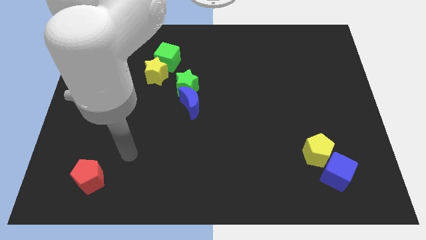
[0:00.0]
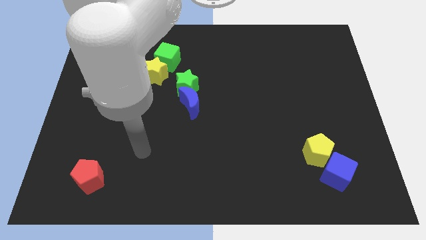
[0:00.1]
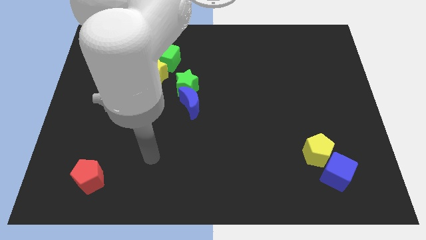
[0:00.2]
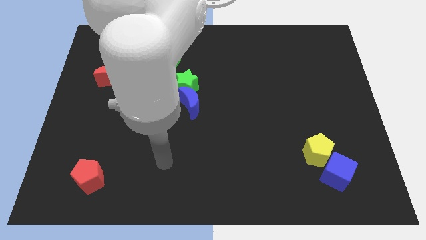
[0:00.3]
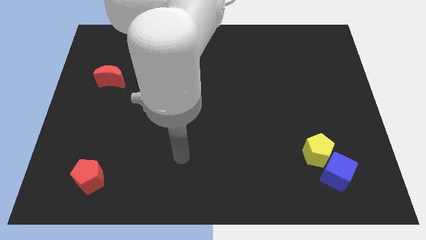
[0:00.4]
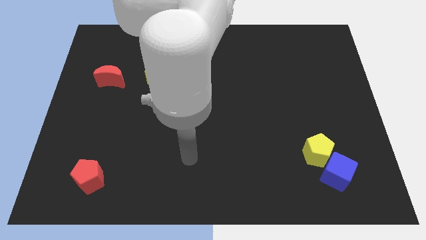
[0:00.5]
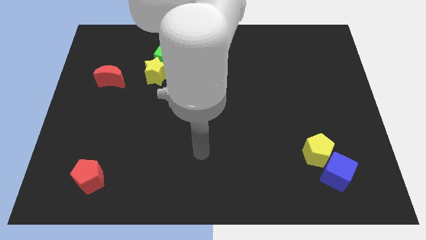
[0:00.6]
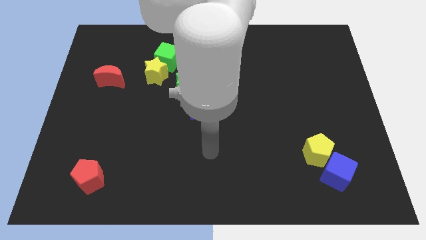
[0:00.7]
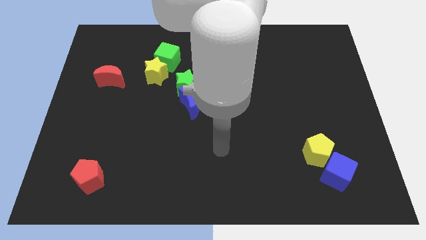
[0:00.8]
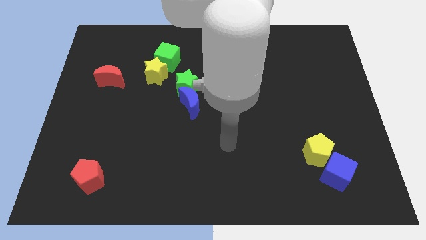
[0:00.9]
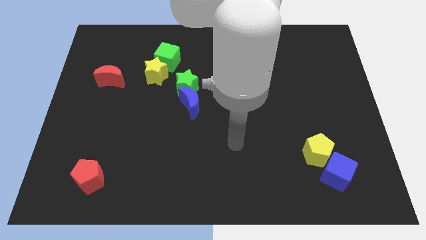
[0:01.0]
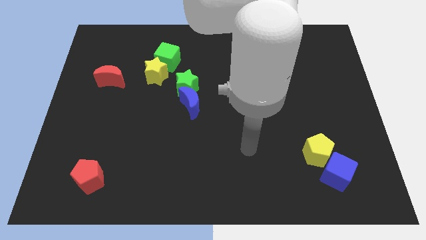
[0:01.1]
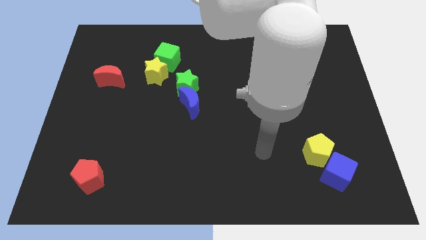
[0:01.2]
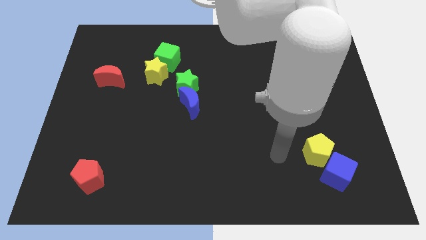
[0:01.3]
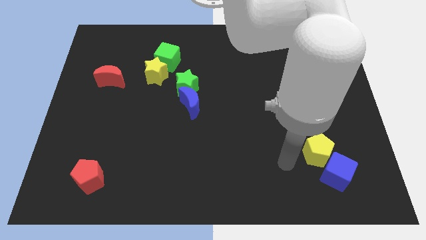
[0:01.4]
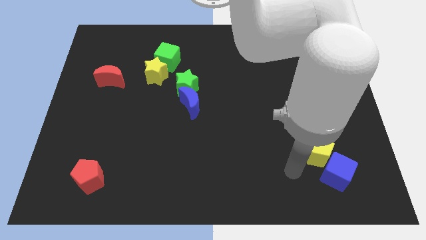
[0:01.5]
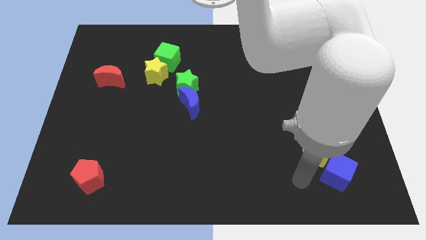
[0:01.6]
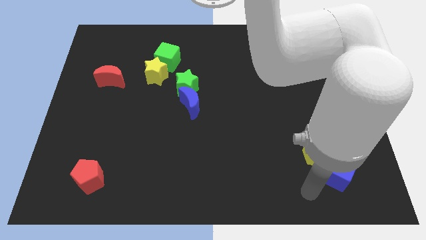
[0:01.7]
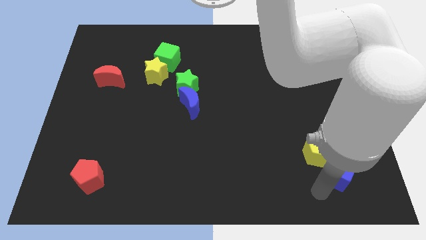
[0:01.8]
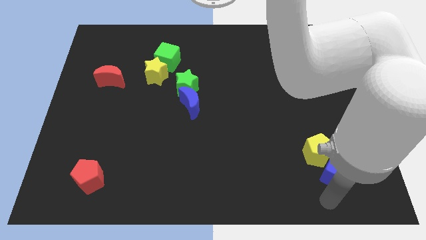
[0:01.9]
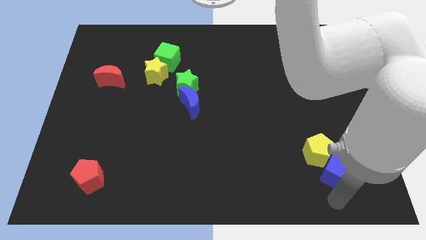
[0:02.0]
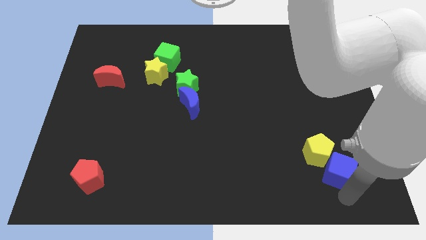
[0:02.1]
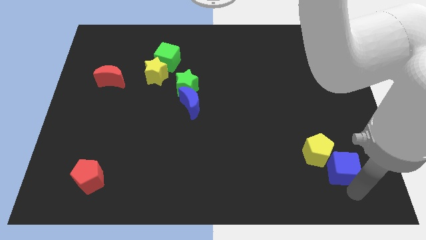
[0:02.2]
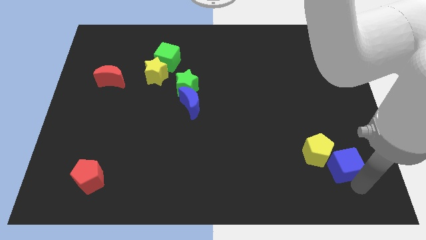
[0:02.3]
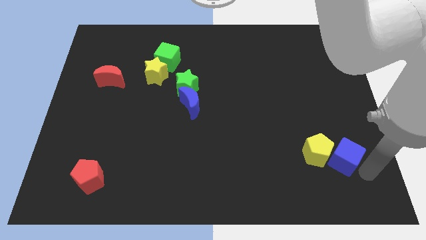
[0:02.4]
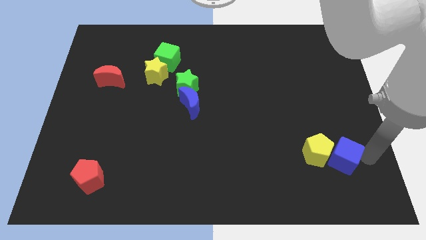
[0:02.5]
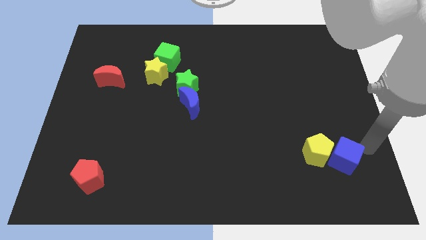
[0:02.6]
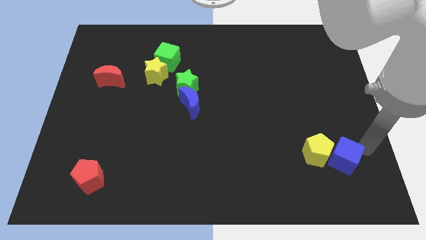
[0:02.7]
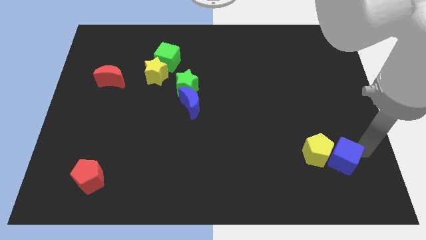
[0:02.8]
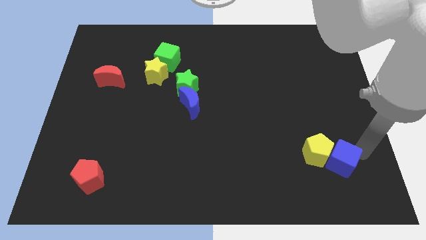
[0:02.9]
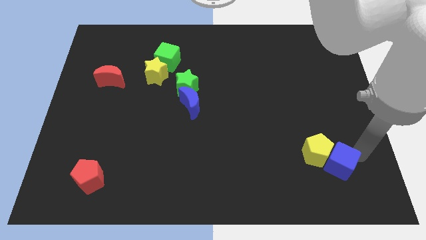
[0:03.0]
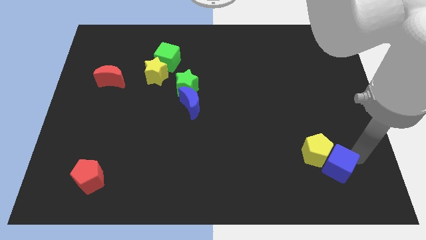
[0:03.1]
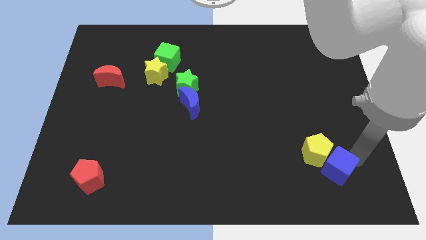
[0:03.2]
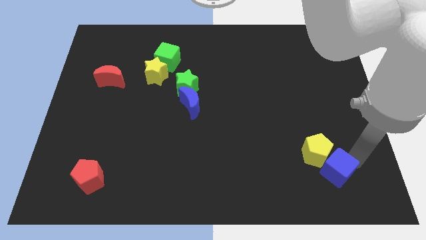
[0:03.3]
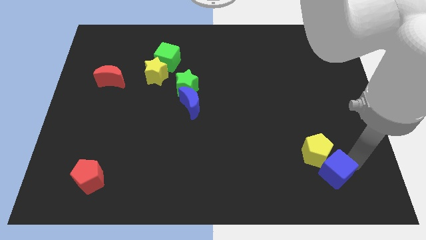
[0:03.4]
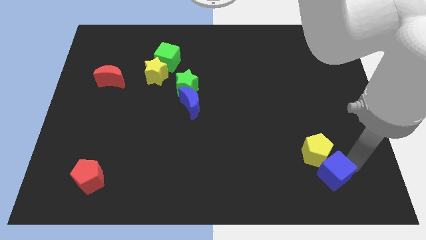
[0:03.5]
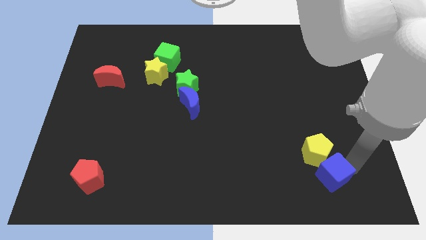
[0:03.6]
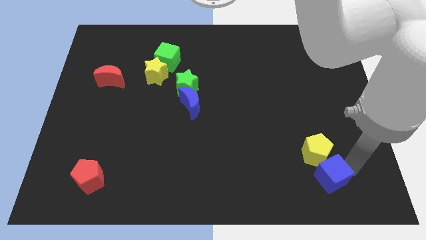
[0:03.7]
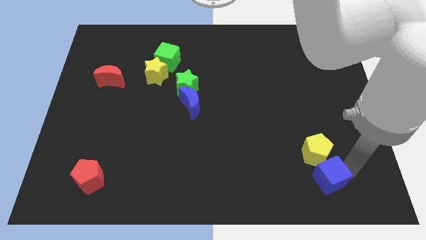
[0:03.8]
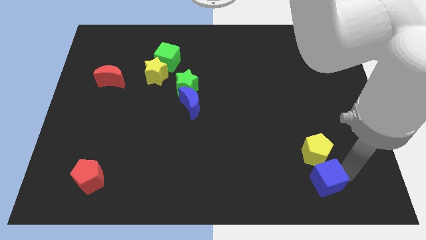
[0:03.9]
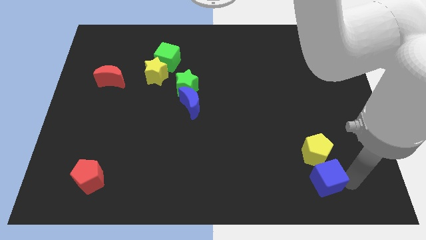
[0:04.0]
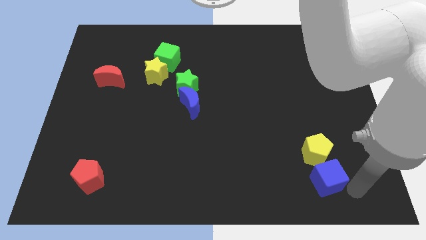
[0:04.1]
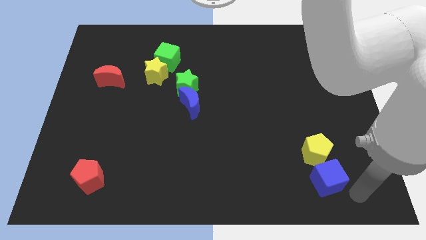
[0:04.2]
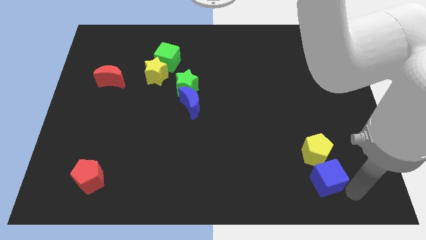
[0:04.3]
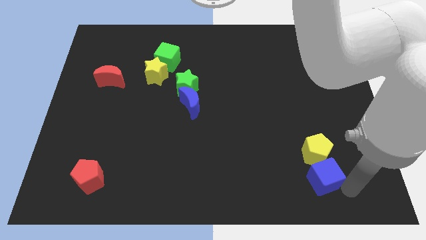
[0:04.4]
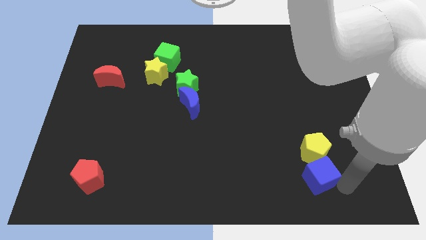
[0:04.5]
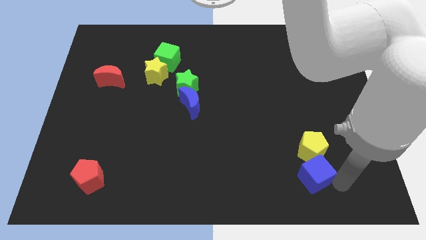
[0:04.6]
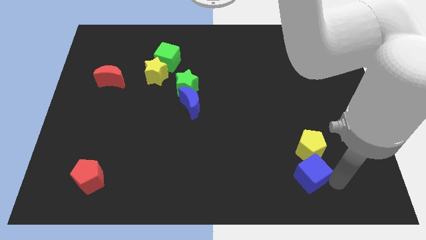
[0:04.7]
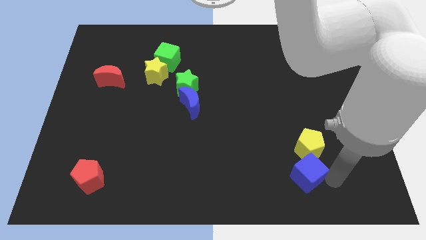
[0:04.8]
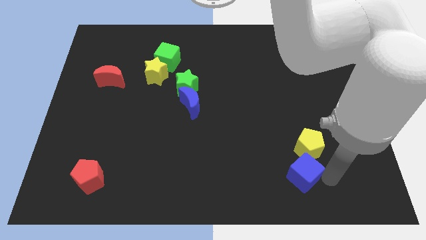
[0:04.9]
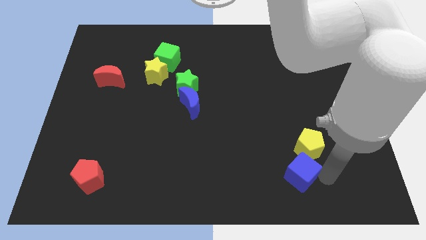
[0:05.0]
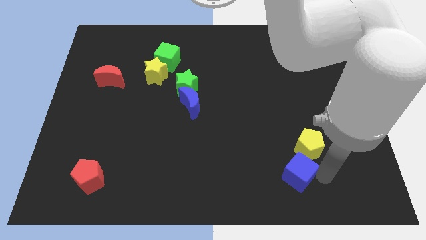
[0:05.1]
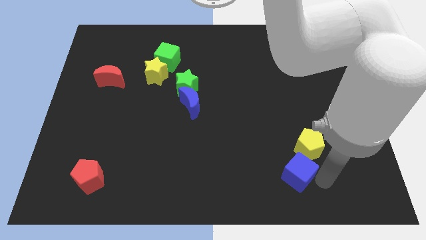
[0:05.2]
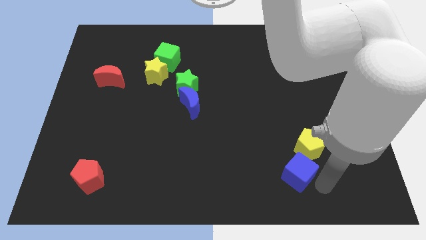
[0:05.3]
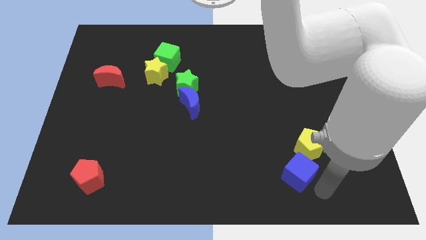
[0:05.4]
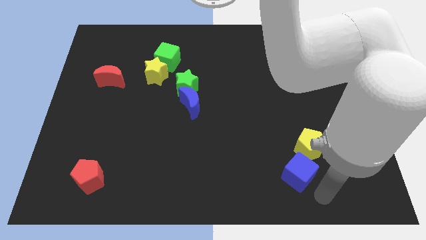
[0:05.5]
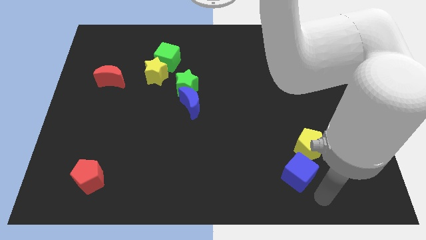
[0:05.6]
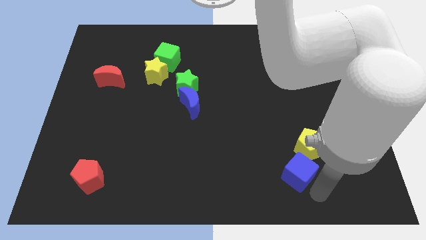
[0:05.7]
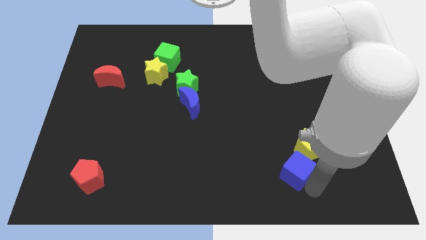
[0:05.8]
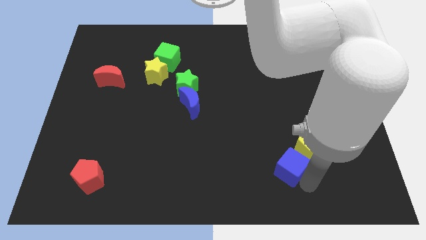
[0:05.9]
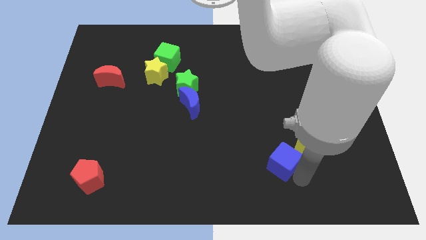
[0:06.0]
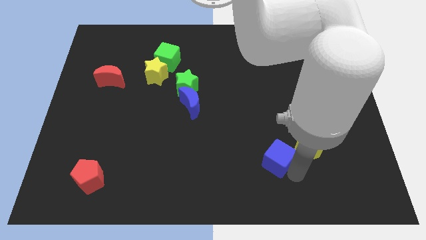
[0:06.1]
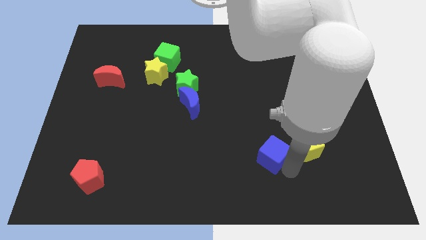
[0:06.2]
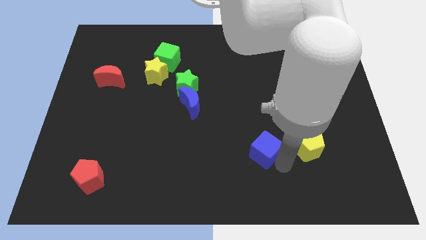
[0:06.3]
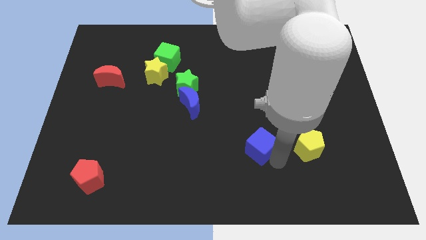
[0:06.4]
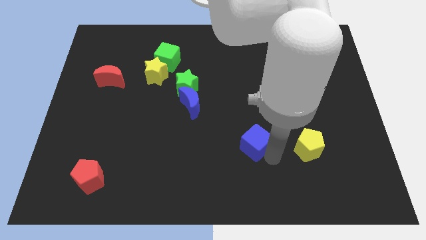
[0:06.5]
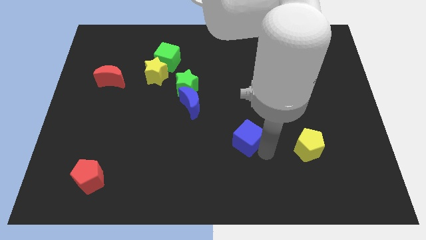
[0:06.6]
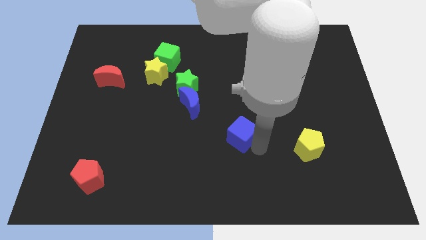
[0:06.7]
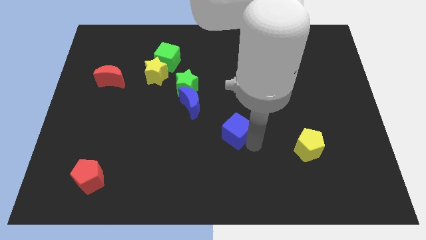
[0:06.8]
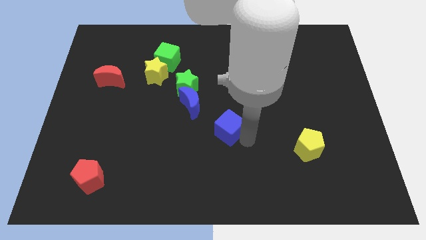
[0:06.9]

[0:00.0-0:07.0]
push the blue cube to the bottom right of the blue moon
